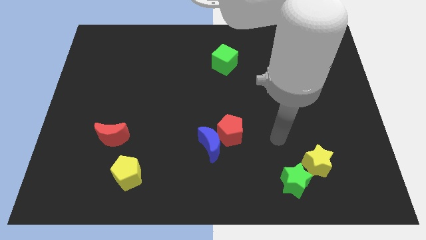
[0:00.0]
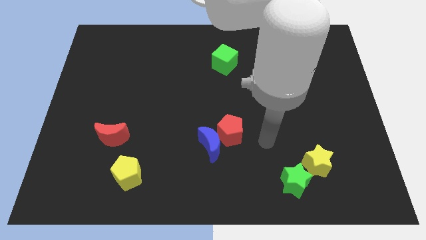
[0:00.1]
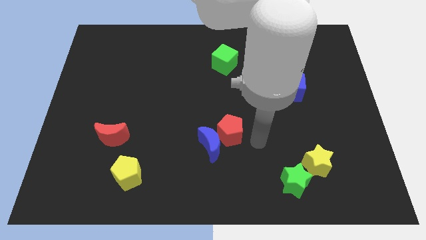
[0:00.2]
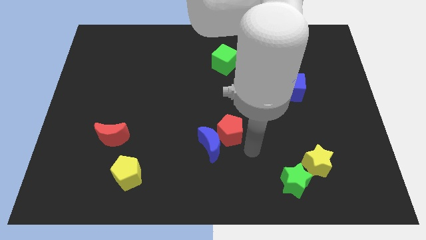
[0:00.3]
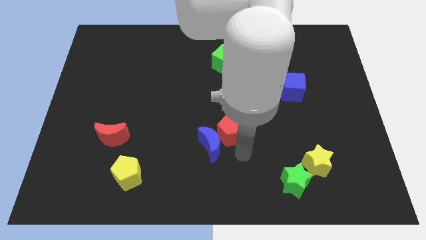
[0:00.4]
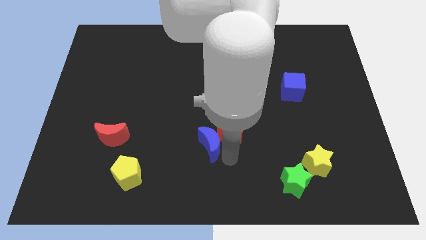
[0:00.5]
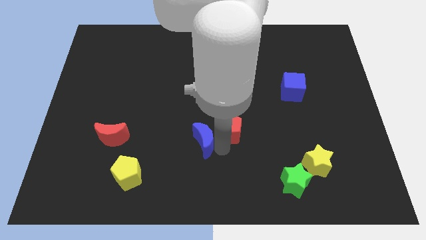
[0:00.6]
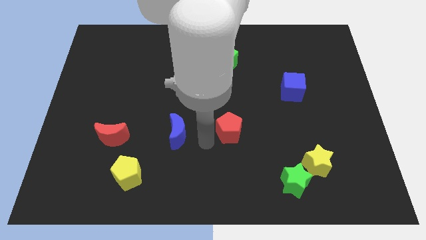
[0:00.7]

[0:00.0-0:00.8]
pull the red pentagon apart from the blue moon

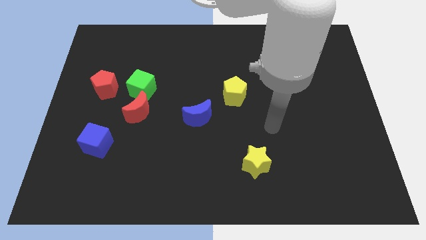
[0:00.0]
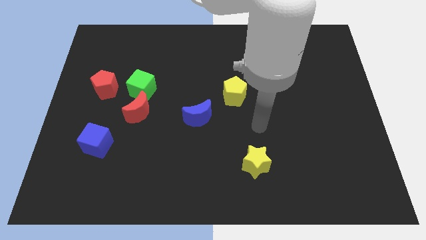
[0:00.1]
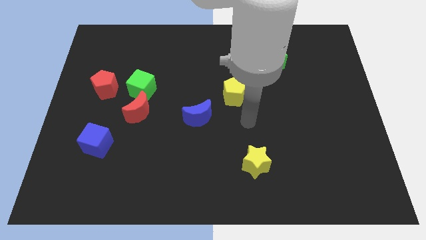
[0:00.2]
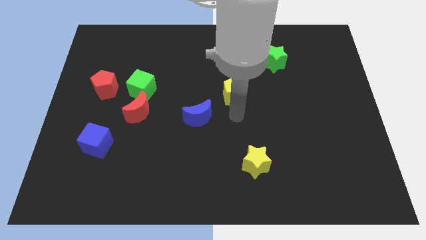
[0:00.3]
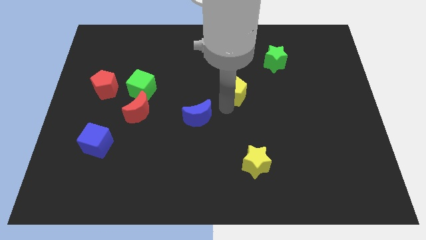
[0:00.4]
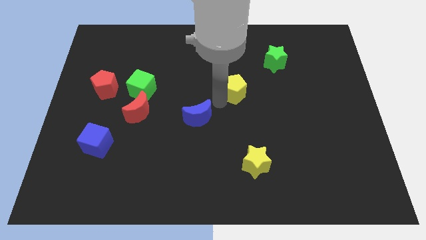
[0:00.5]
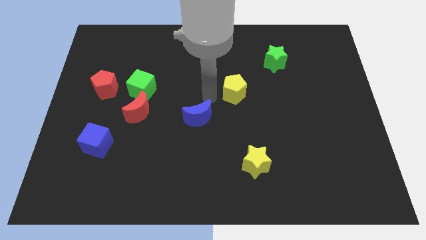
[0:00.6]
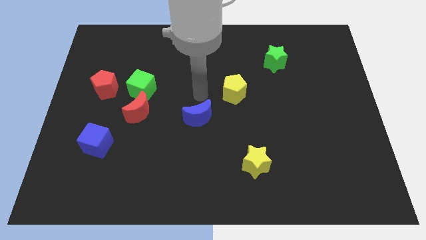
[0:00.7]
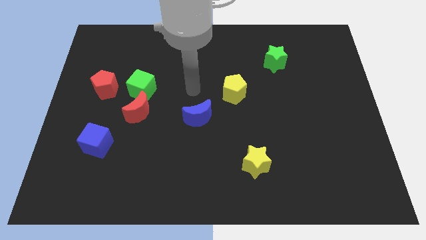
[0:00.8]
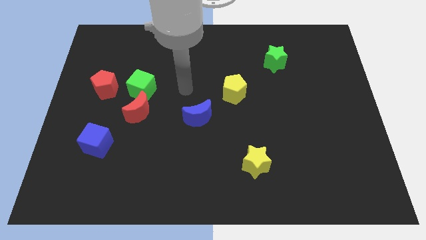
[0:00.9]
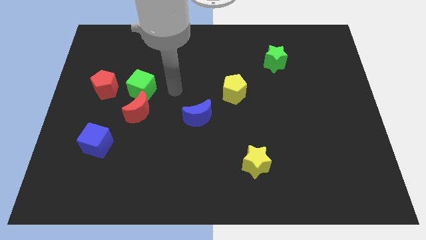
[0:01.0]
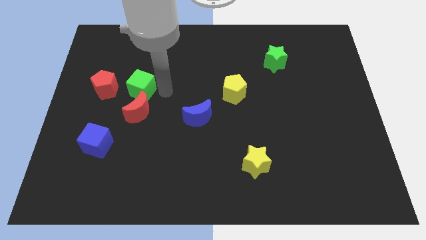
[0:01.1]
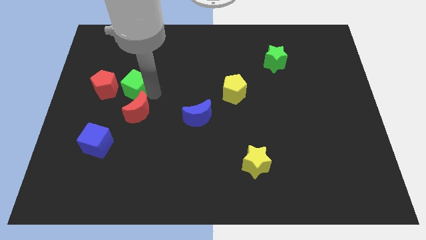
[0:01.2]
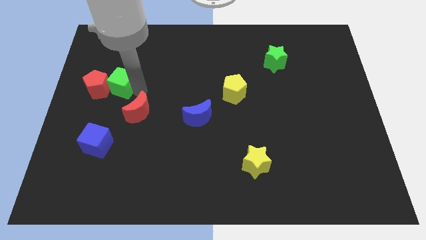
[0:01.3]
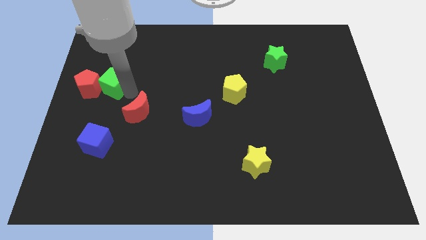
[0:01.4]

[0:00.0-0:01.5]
separate the red moon from the green cube

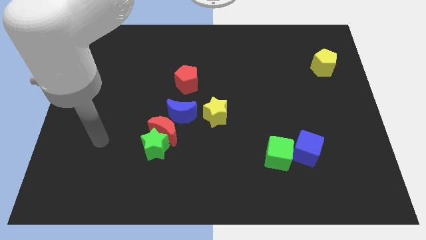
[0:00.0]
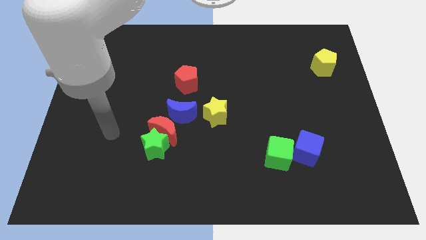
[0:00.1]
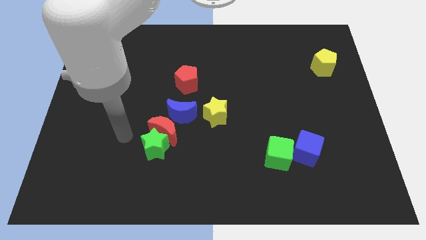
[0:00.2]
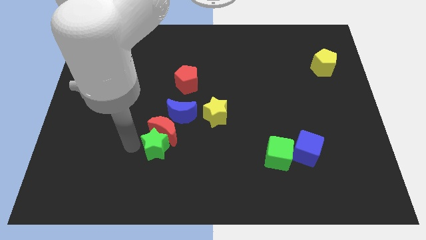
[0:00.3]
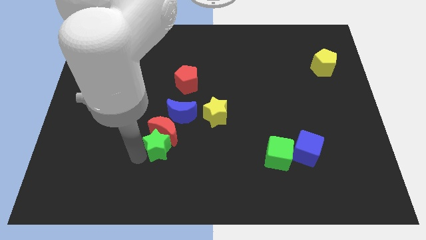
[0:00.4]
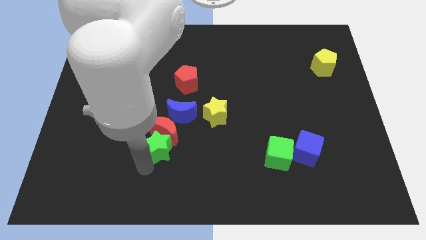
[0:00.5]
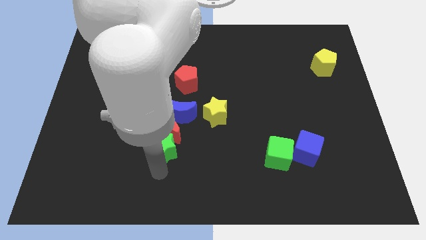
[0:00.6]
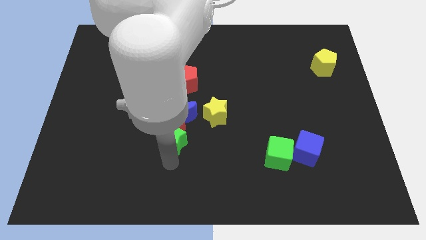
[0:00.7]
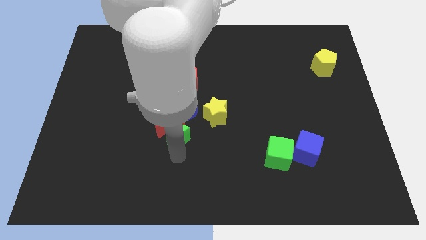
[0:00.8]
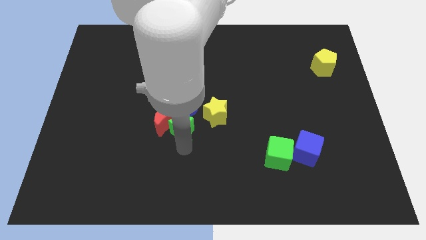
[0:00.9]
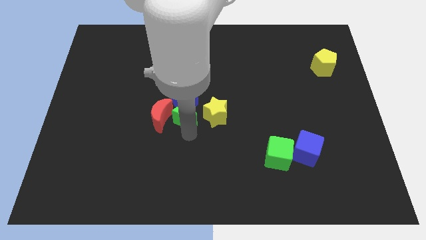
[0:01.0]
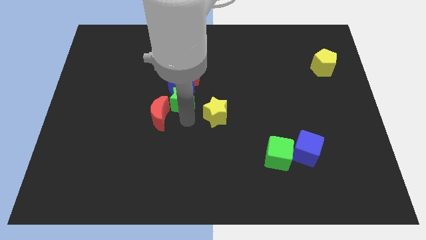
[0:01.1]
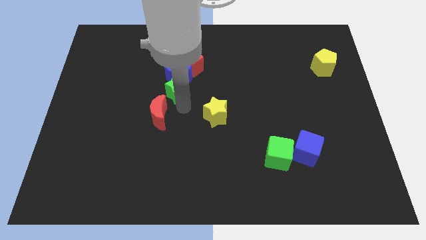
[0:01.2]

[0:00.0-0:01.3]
move the red moon away from the green star and blue moon

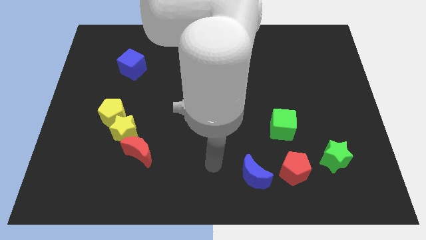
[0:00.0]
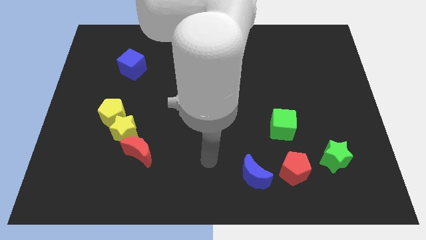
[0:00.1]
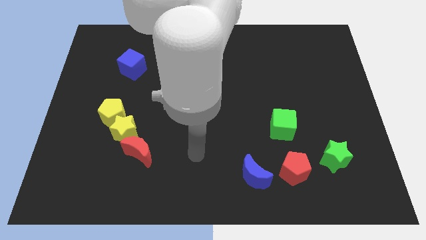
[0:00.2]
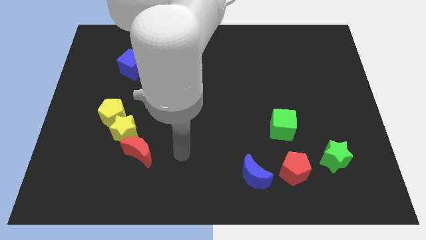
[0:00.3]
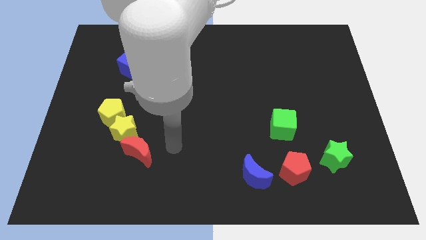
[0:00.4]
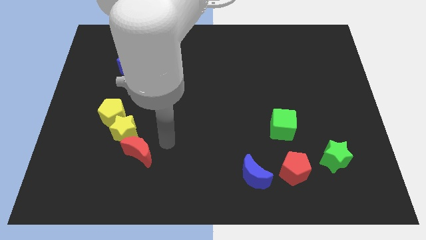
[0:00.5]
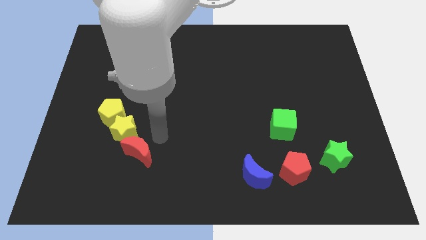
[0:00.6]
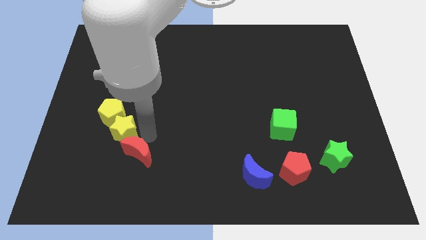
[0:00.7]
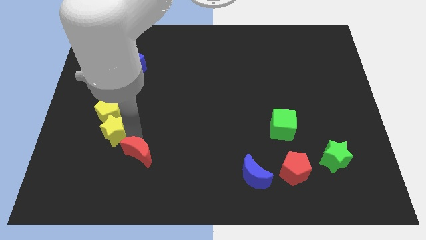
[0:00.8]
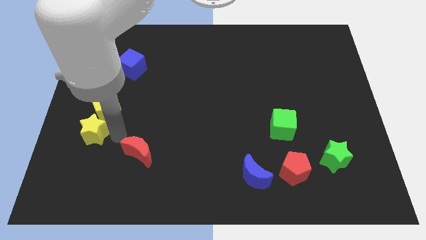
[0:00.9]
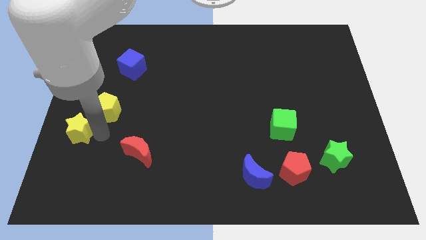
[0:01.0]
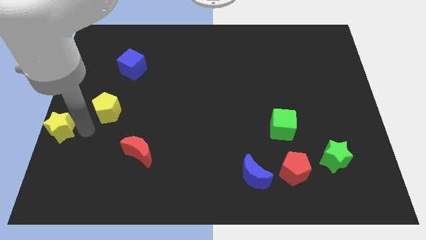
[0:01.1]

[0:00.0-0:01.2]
pull the yellow pentagon apart from the yellow star

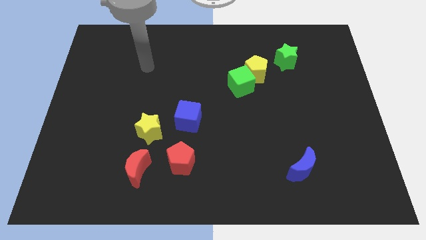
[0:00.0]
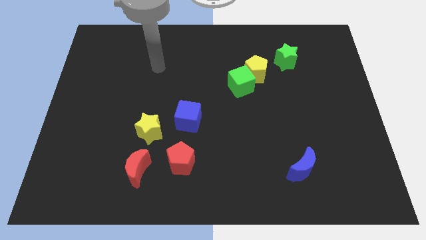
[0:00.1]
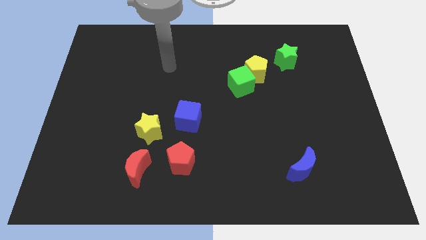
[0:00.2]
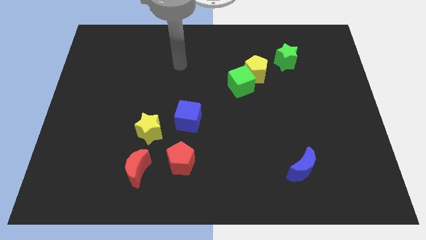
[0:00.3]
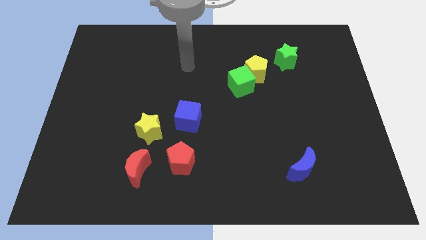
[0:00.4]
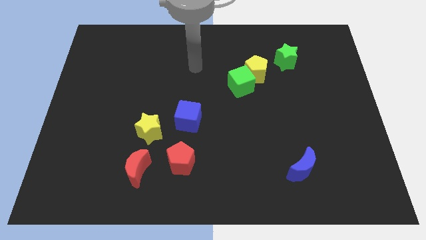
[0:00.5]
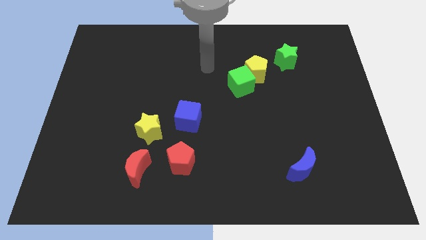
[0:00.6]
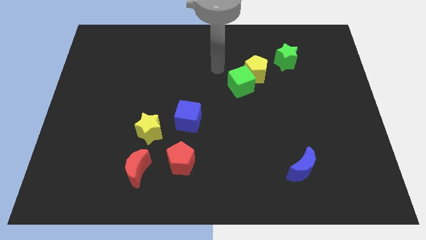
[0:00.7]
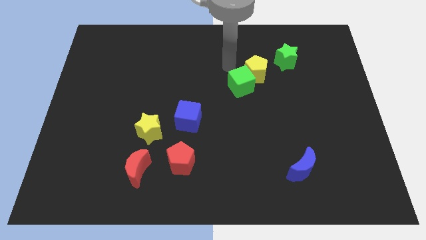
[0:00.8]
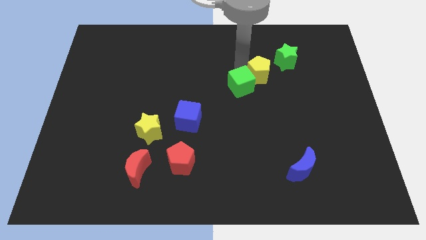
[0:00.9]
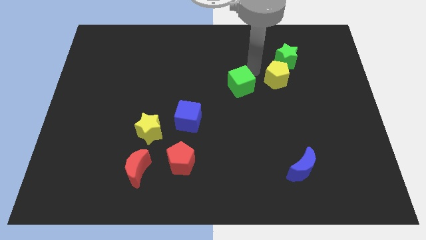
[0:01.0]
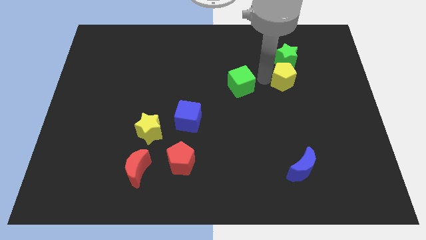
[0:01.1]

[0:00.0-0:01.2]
separate the green cube from the yellow pentagon

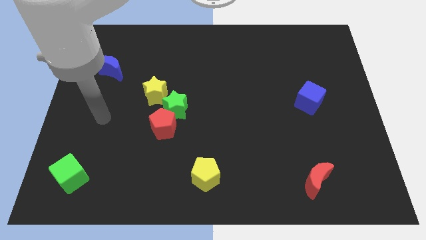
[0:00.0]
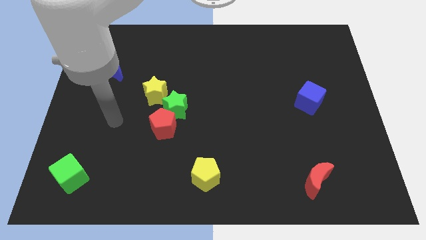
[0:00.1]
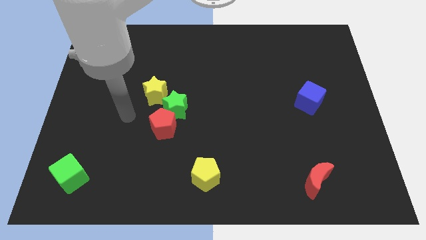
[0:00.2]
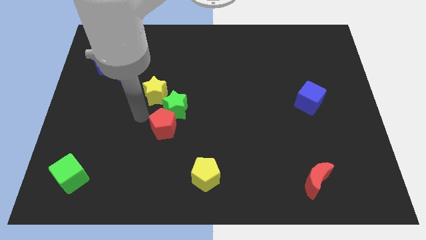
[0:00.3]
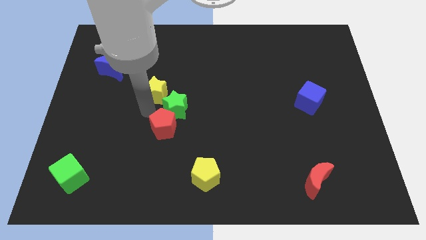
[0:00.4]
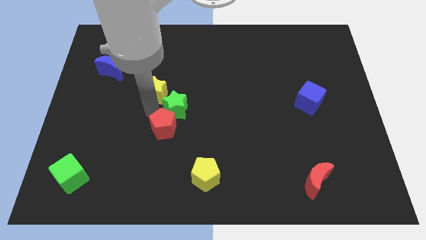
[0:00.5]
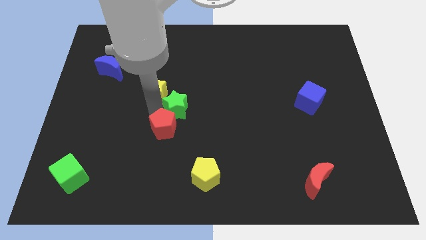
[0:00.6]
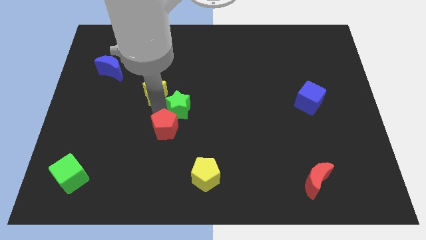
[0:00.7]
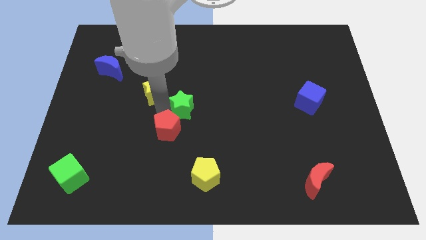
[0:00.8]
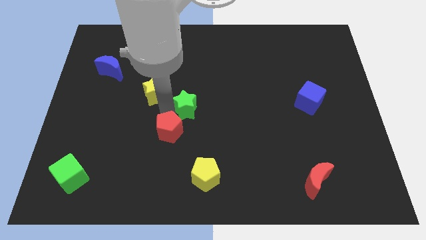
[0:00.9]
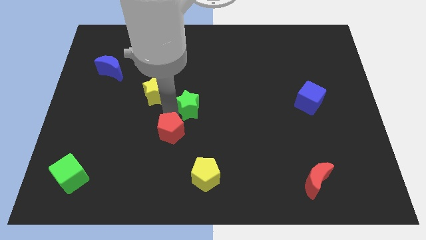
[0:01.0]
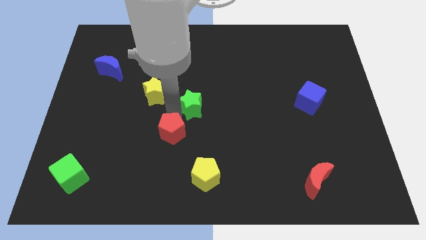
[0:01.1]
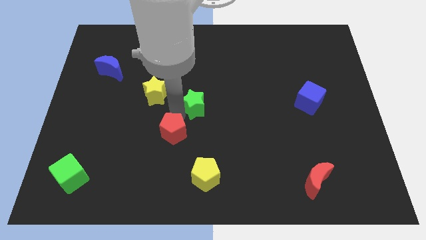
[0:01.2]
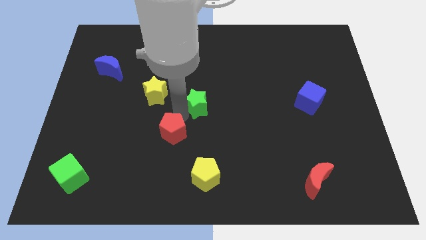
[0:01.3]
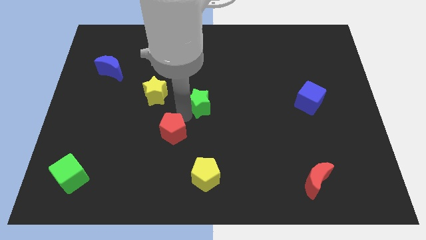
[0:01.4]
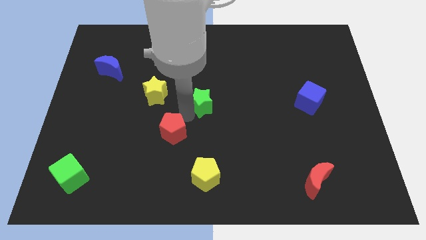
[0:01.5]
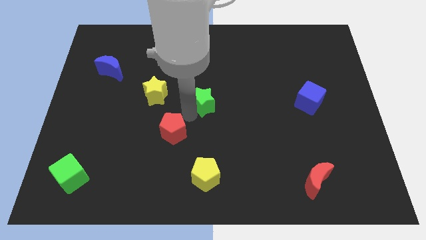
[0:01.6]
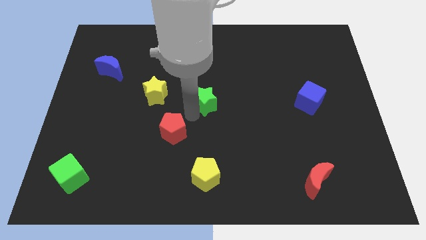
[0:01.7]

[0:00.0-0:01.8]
separate the green star from the red pentagon and yellow star

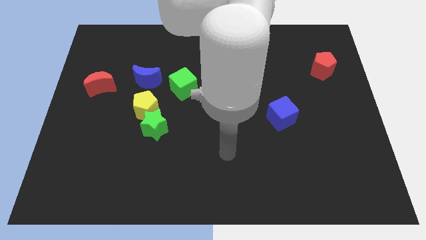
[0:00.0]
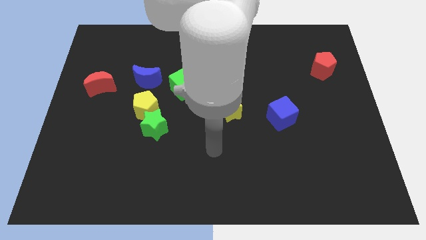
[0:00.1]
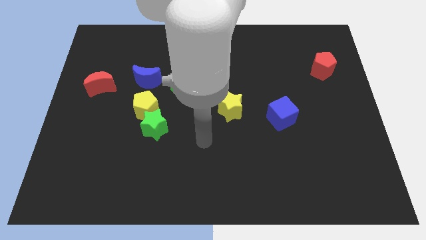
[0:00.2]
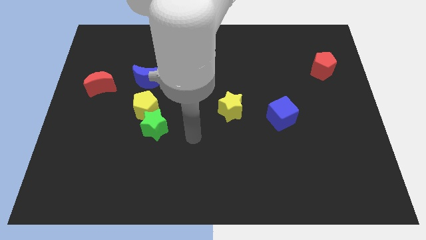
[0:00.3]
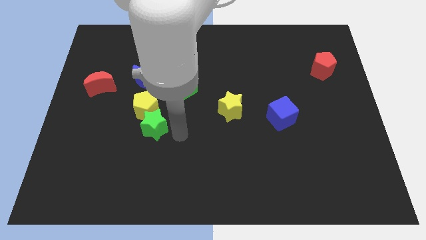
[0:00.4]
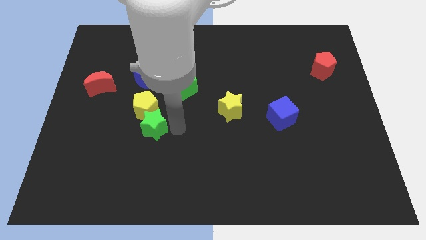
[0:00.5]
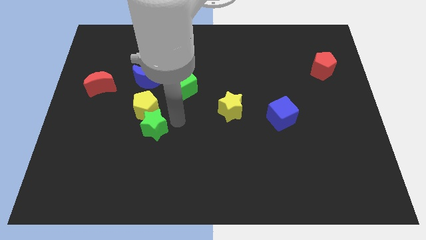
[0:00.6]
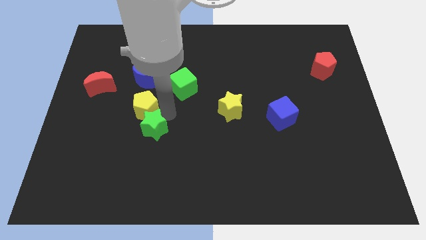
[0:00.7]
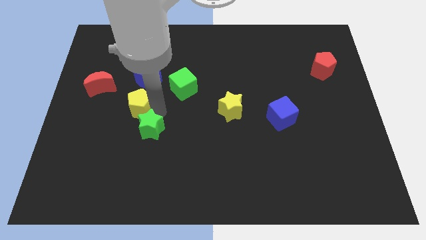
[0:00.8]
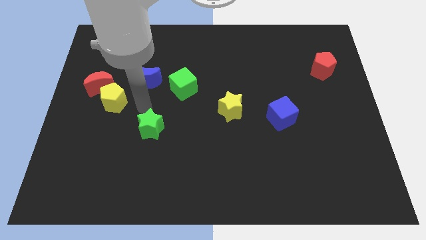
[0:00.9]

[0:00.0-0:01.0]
pull the green star apart from the yellow pentagon

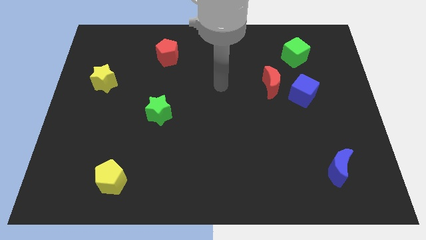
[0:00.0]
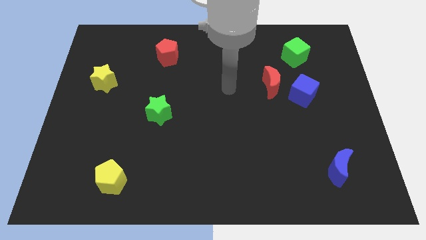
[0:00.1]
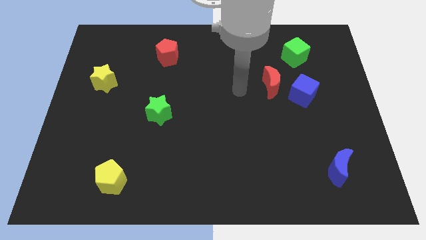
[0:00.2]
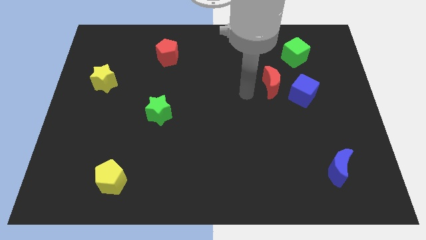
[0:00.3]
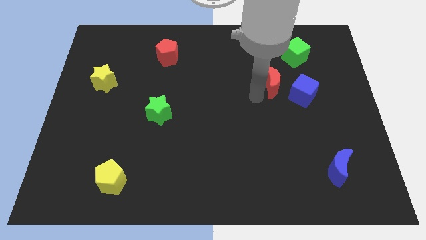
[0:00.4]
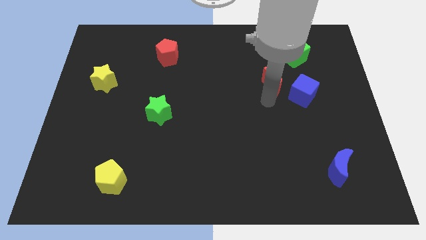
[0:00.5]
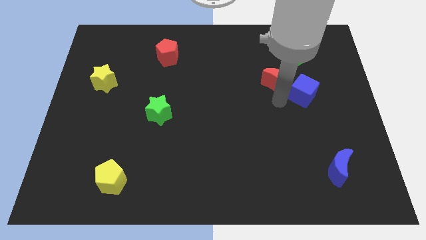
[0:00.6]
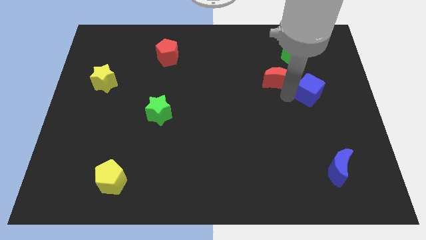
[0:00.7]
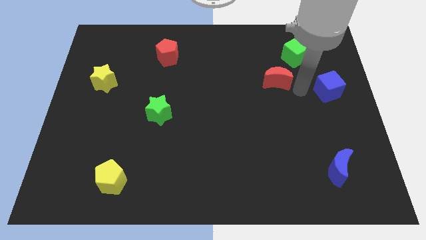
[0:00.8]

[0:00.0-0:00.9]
separate the red moon from the blue cube
